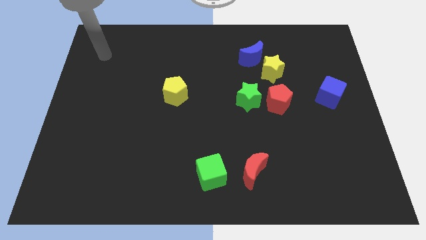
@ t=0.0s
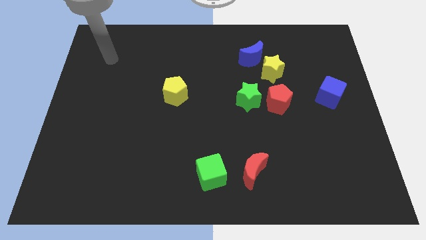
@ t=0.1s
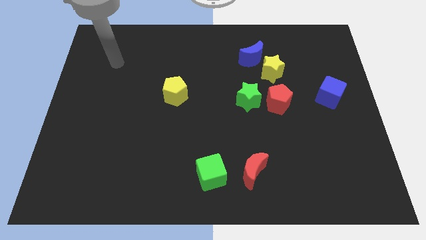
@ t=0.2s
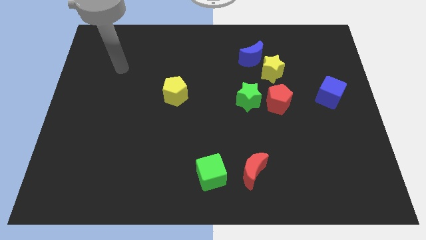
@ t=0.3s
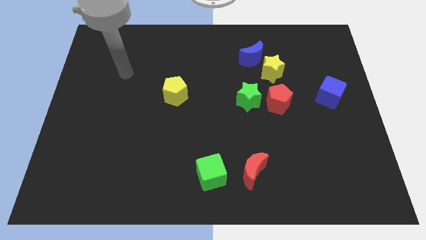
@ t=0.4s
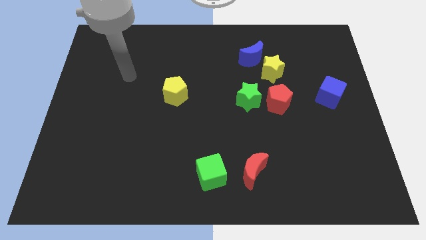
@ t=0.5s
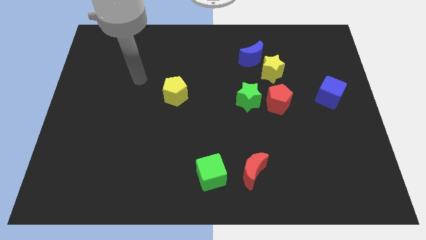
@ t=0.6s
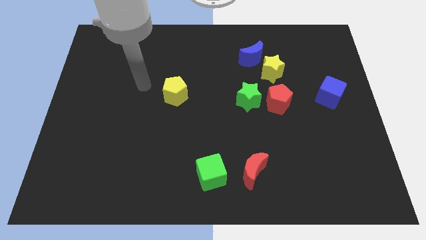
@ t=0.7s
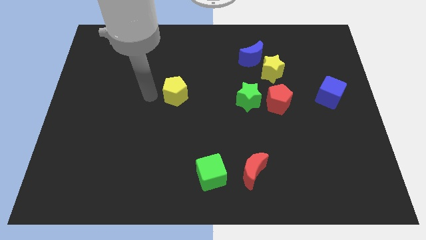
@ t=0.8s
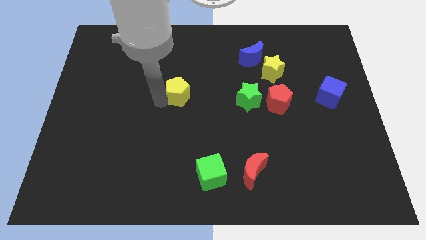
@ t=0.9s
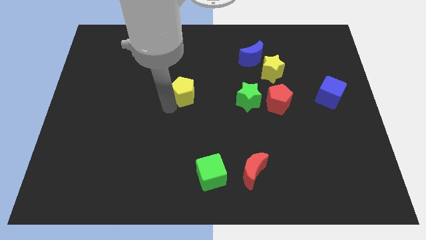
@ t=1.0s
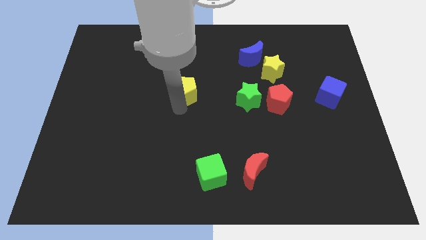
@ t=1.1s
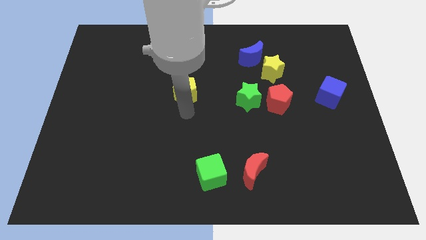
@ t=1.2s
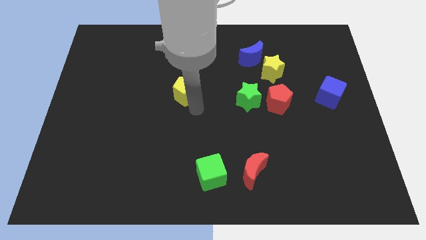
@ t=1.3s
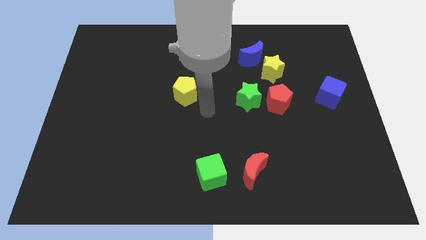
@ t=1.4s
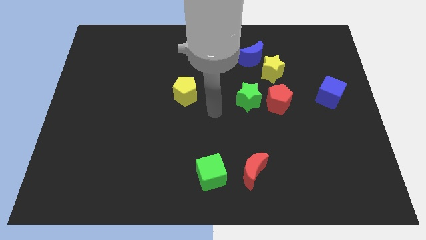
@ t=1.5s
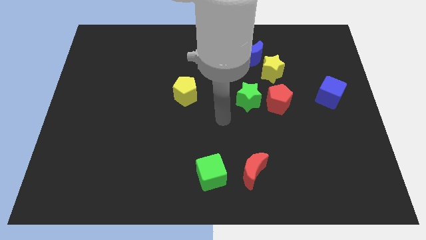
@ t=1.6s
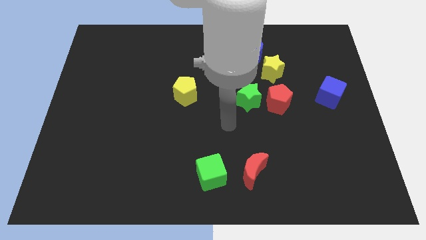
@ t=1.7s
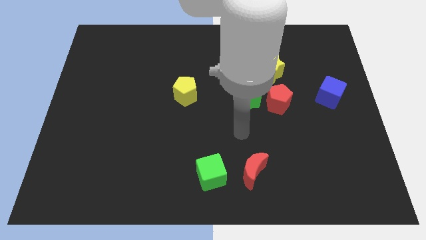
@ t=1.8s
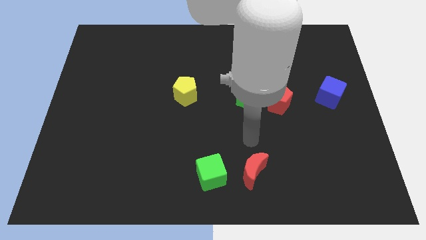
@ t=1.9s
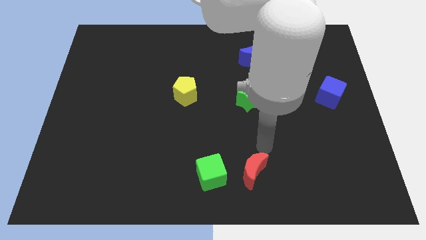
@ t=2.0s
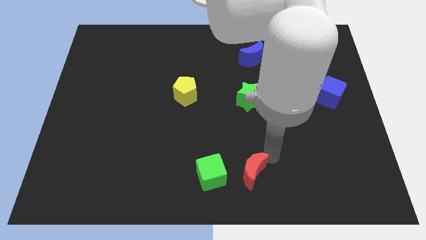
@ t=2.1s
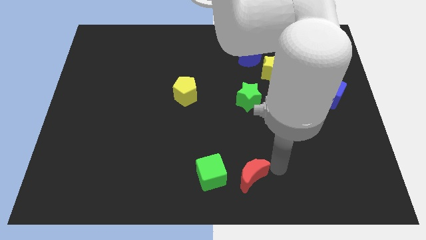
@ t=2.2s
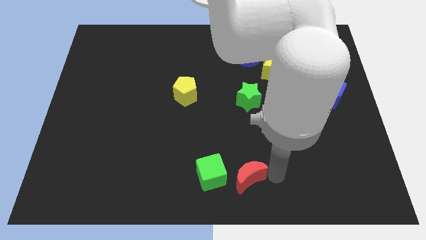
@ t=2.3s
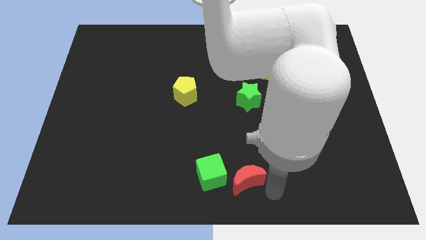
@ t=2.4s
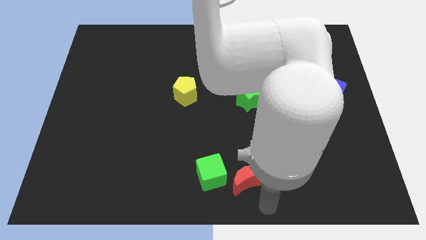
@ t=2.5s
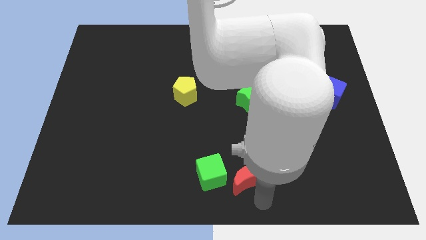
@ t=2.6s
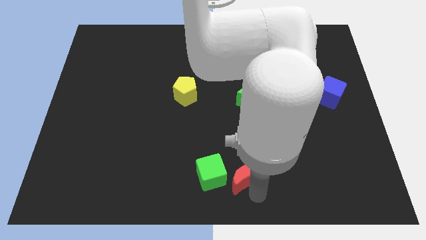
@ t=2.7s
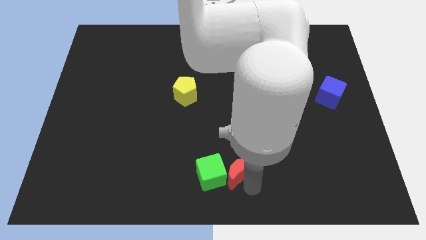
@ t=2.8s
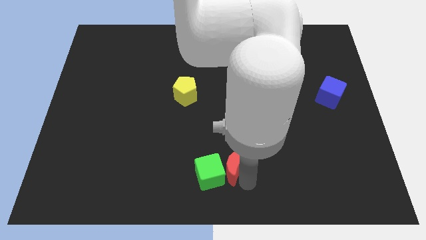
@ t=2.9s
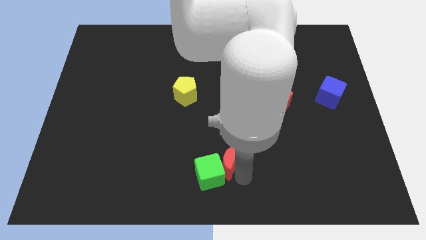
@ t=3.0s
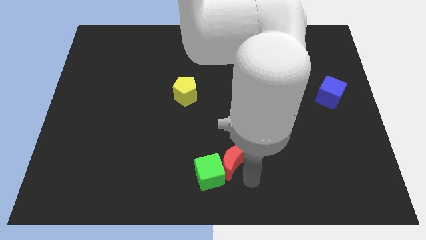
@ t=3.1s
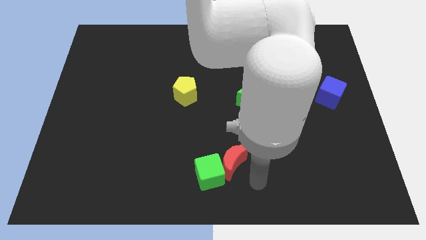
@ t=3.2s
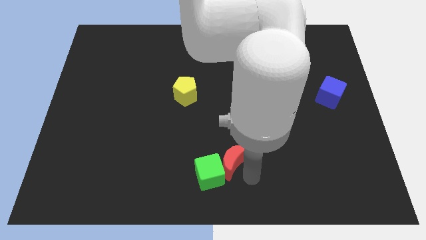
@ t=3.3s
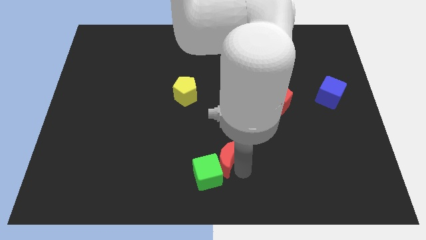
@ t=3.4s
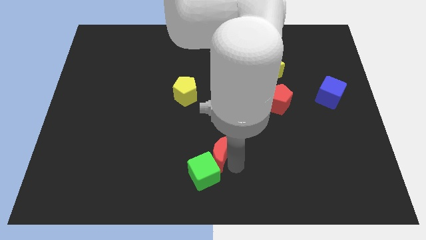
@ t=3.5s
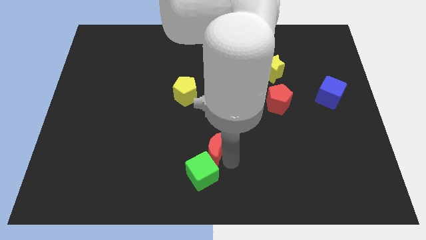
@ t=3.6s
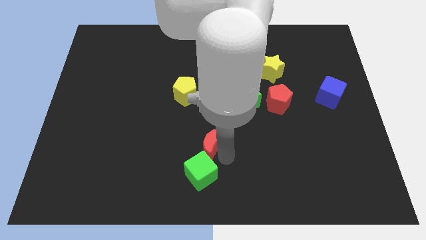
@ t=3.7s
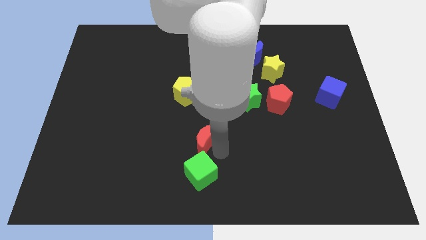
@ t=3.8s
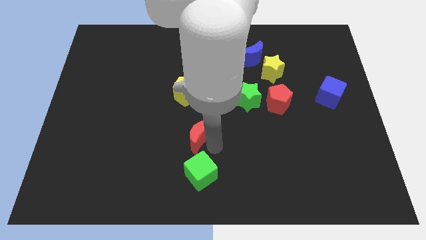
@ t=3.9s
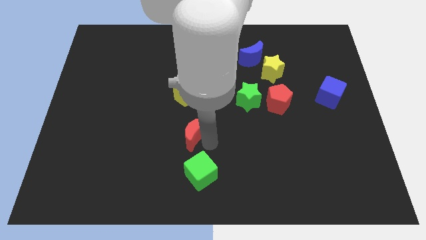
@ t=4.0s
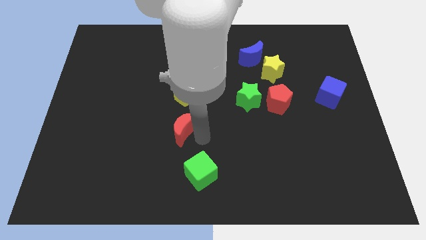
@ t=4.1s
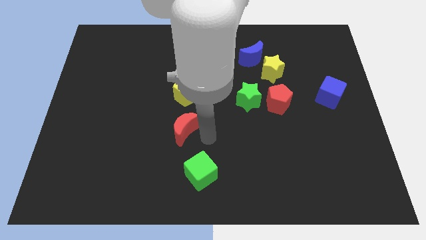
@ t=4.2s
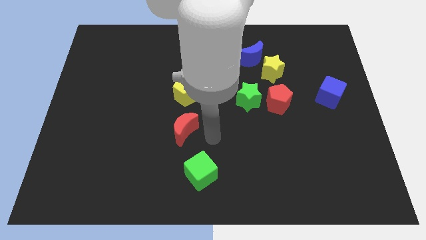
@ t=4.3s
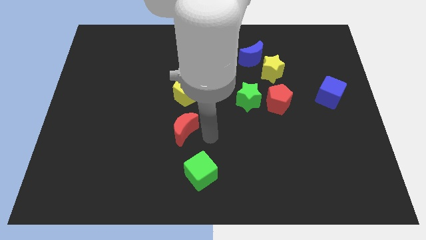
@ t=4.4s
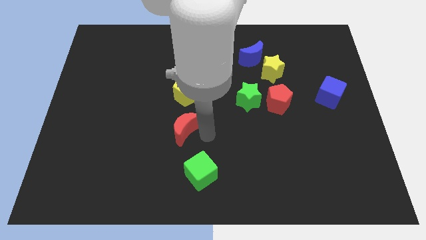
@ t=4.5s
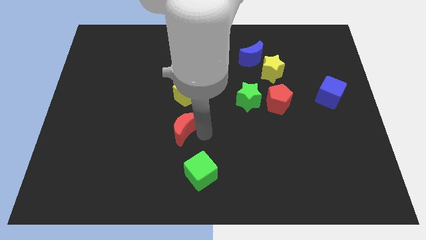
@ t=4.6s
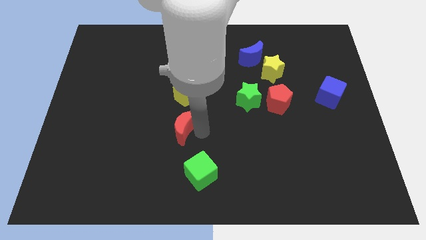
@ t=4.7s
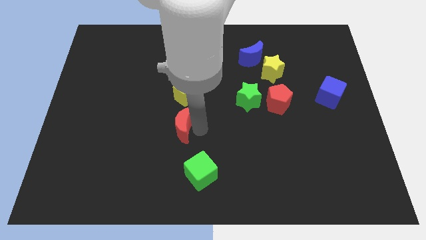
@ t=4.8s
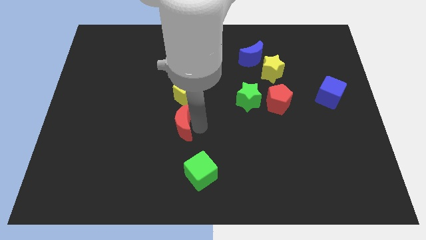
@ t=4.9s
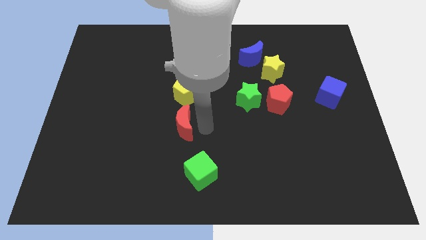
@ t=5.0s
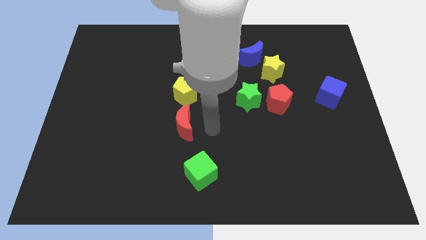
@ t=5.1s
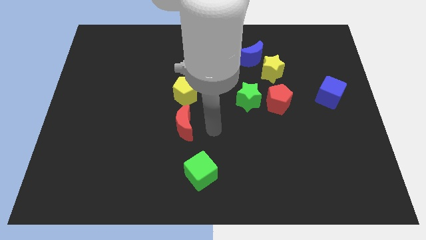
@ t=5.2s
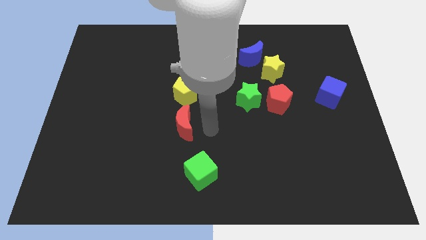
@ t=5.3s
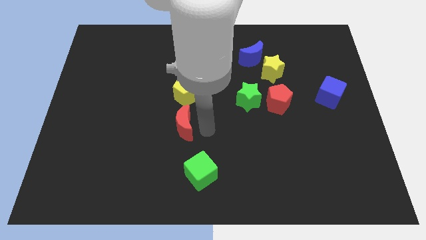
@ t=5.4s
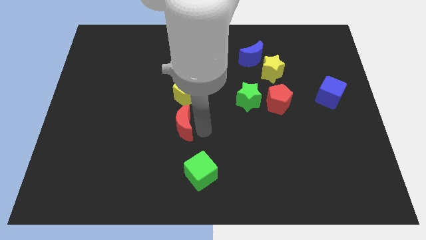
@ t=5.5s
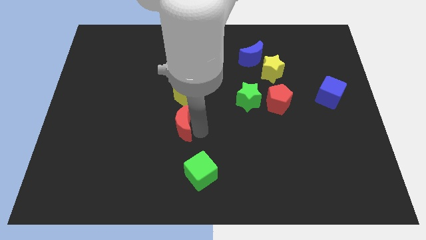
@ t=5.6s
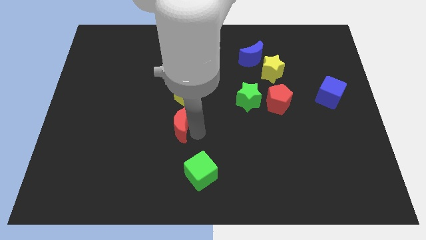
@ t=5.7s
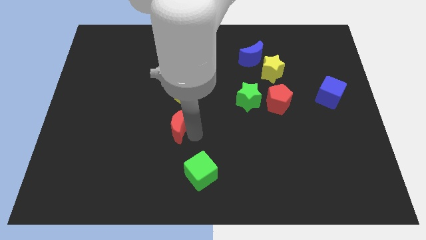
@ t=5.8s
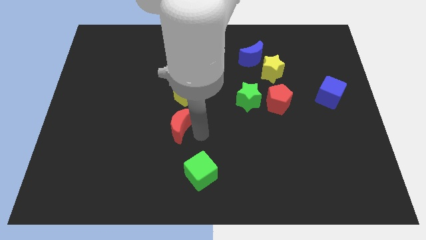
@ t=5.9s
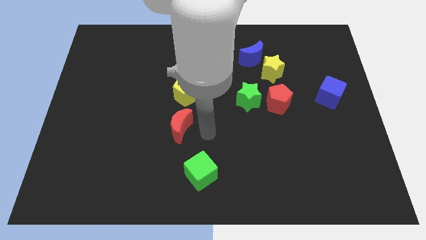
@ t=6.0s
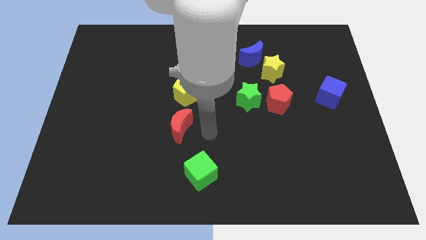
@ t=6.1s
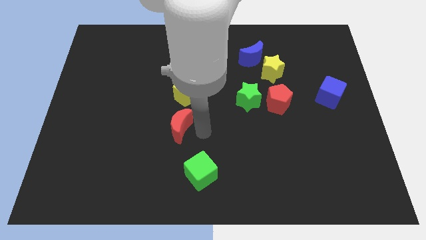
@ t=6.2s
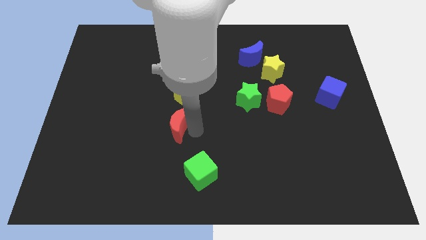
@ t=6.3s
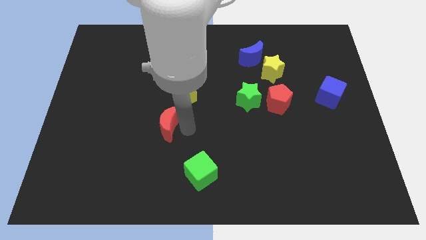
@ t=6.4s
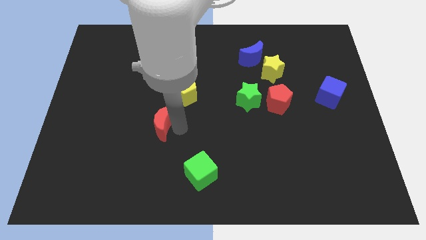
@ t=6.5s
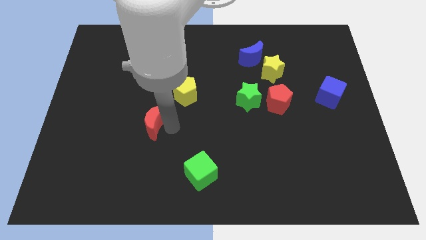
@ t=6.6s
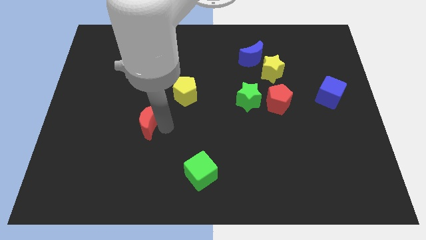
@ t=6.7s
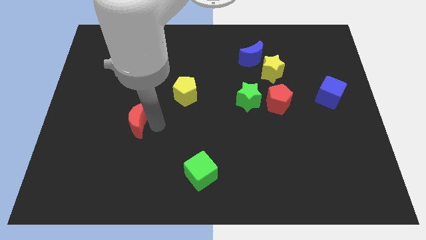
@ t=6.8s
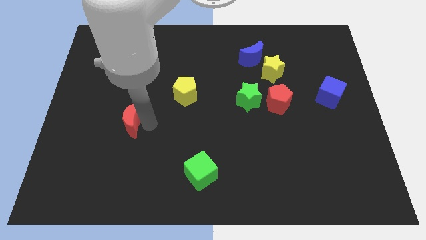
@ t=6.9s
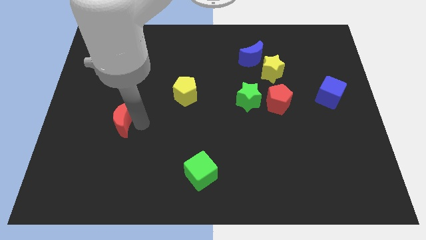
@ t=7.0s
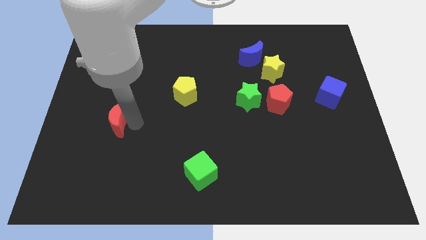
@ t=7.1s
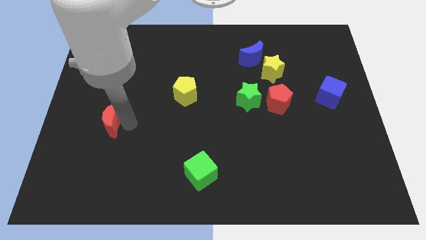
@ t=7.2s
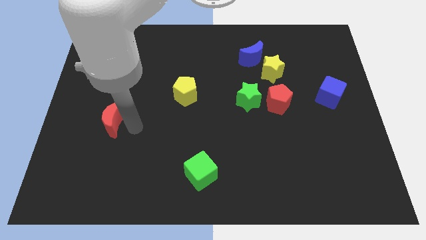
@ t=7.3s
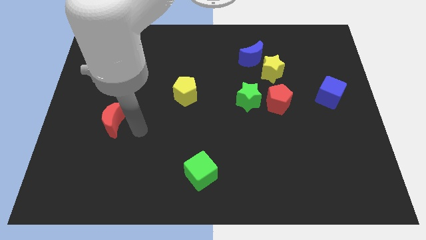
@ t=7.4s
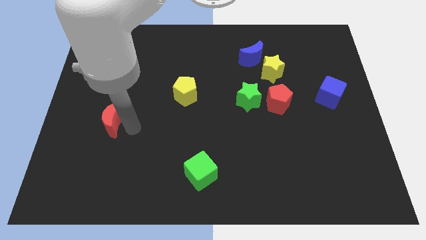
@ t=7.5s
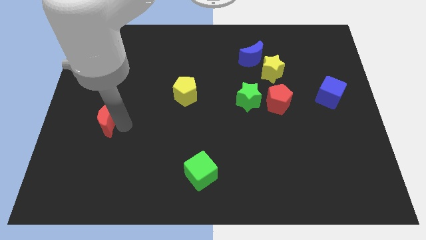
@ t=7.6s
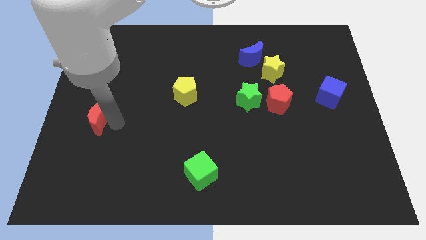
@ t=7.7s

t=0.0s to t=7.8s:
put the red moon to the center left

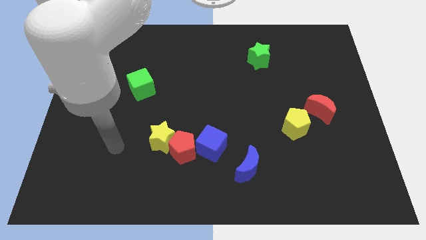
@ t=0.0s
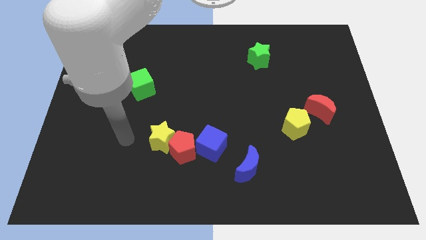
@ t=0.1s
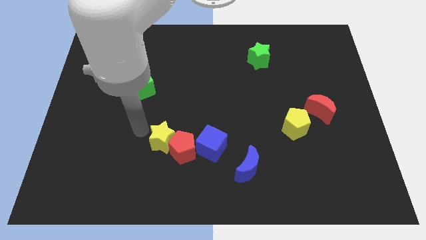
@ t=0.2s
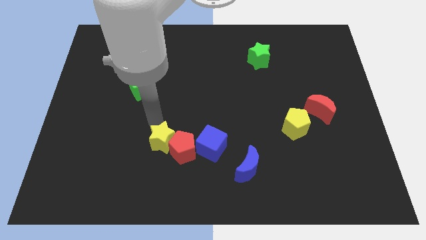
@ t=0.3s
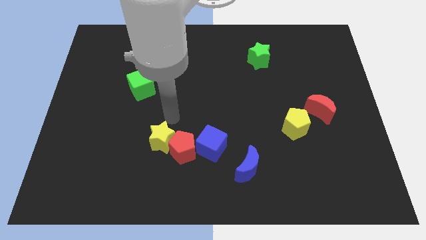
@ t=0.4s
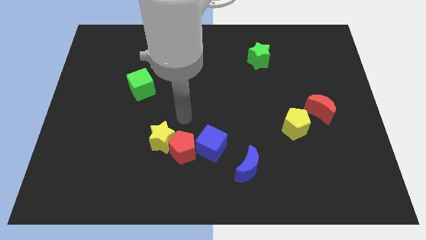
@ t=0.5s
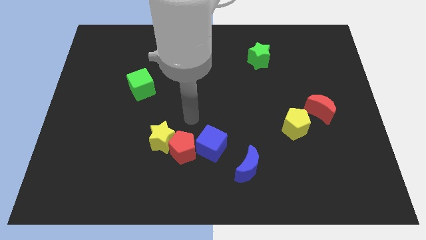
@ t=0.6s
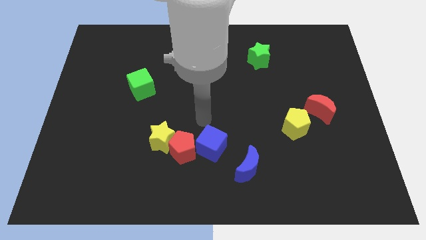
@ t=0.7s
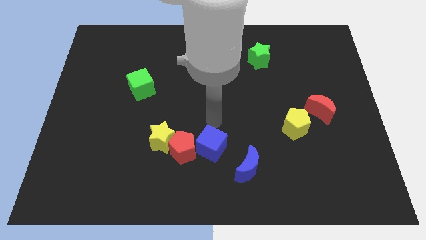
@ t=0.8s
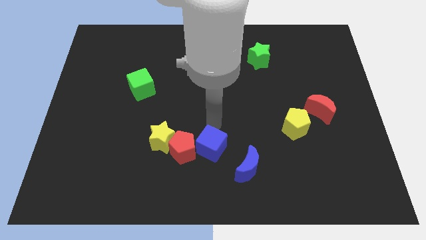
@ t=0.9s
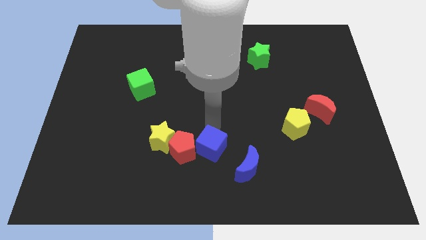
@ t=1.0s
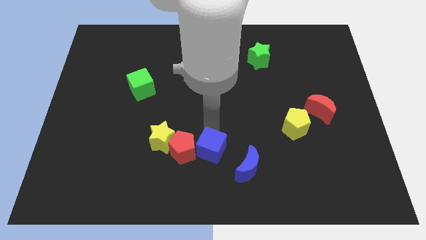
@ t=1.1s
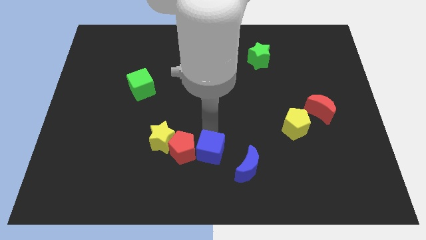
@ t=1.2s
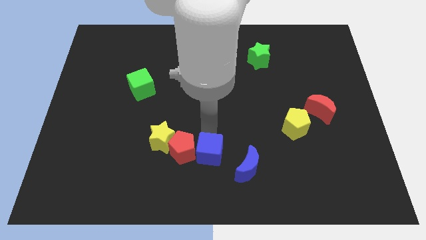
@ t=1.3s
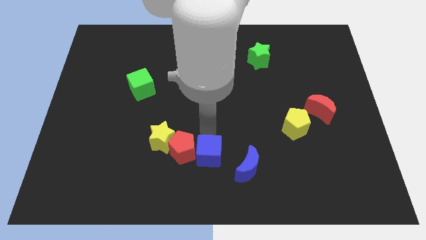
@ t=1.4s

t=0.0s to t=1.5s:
move the blue cube to the bottom
